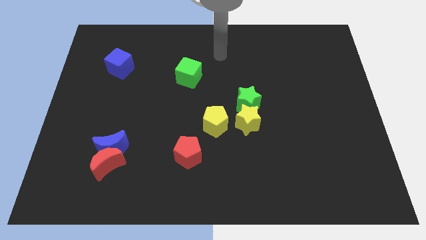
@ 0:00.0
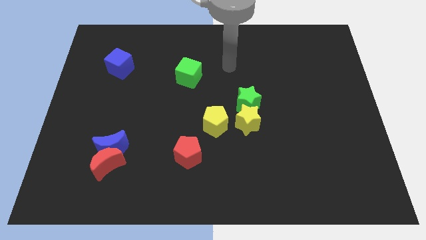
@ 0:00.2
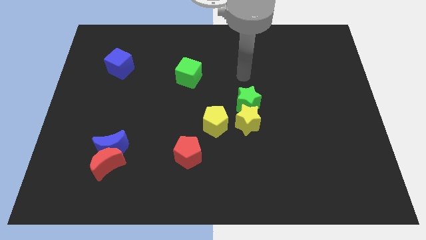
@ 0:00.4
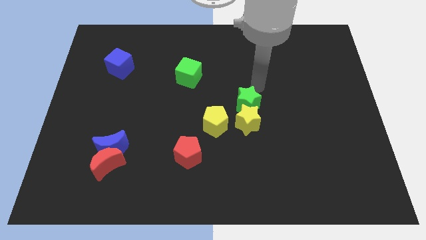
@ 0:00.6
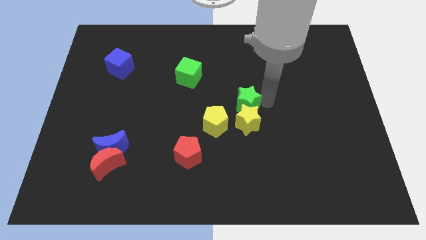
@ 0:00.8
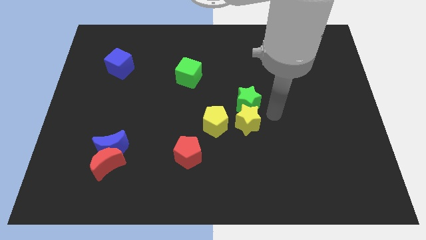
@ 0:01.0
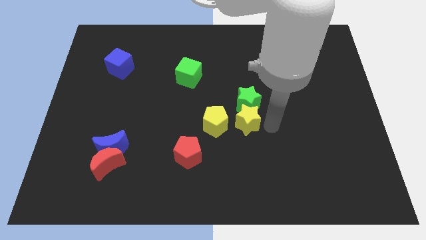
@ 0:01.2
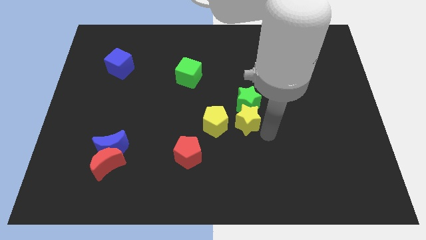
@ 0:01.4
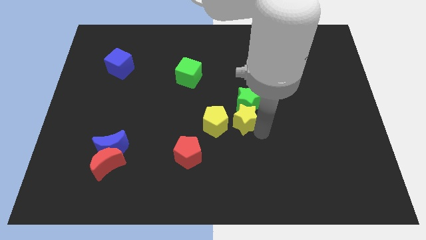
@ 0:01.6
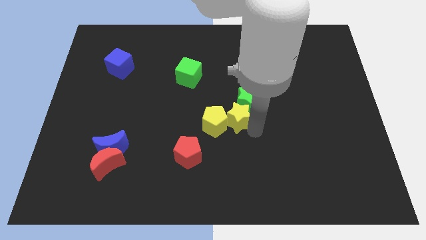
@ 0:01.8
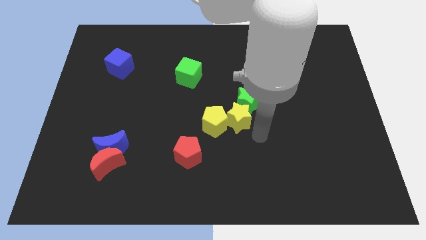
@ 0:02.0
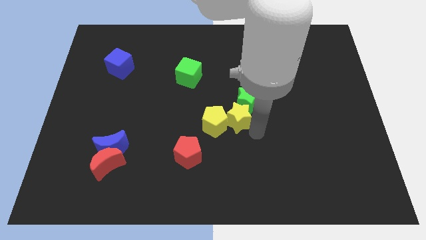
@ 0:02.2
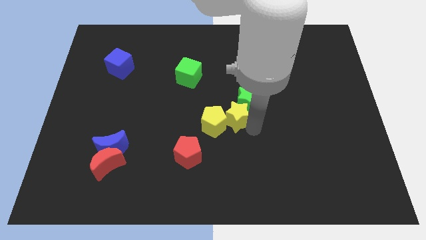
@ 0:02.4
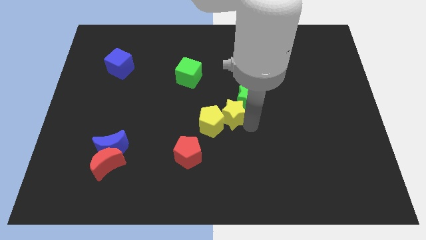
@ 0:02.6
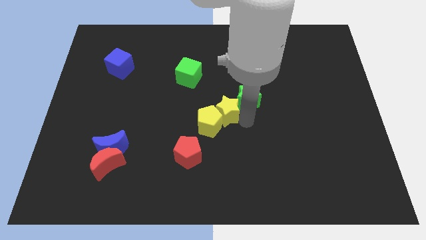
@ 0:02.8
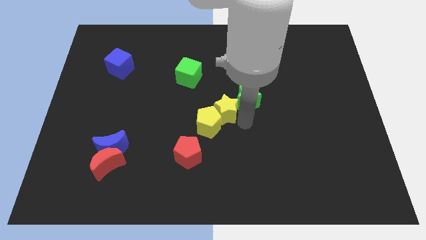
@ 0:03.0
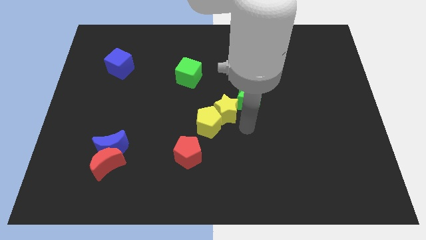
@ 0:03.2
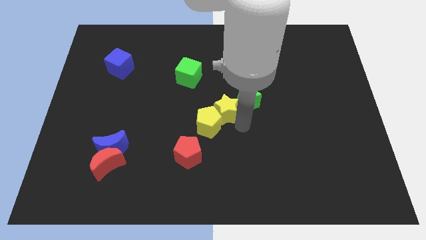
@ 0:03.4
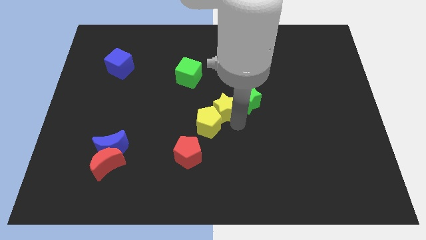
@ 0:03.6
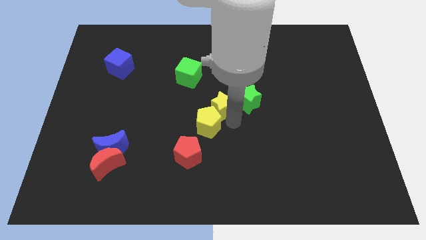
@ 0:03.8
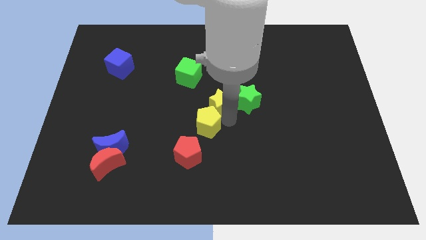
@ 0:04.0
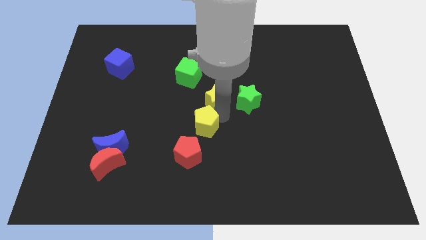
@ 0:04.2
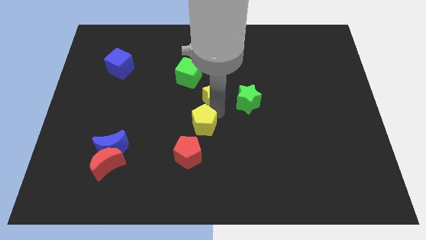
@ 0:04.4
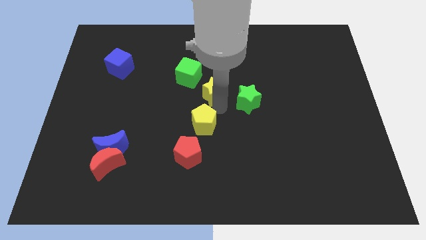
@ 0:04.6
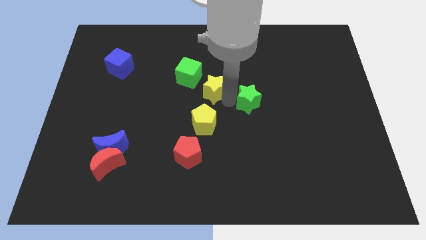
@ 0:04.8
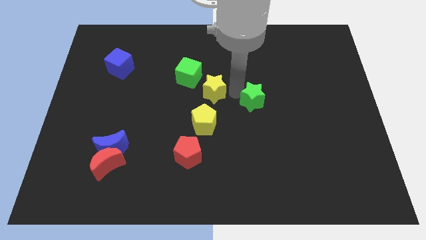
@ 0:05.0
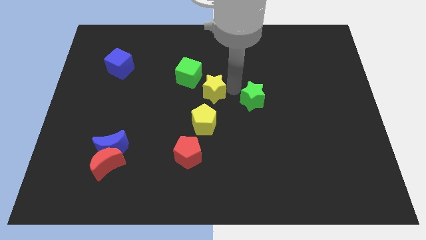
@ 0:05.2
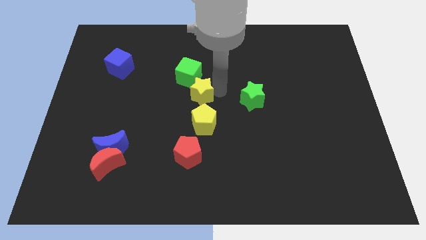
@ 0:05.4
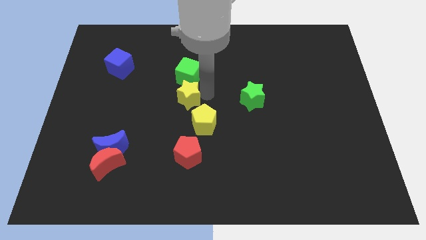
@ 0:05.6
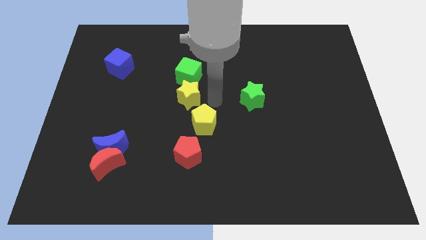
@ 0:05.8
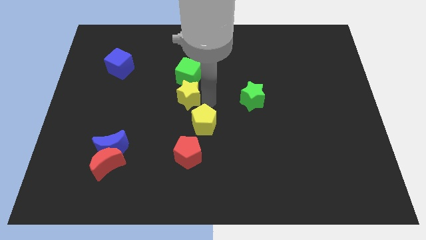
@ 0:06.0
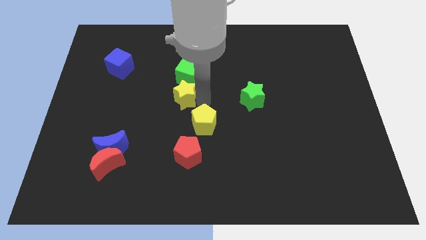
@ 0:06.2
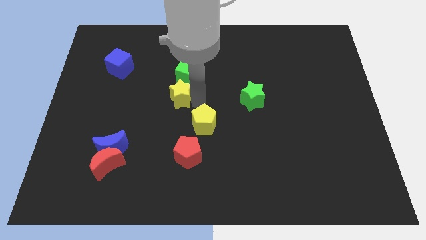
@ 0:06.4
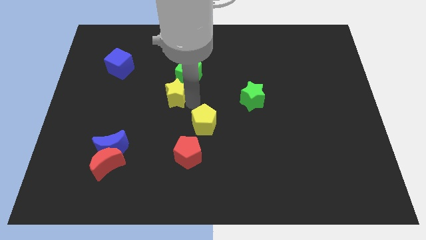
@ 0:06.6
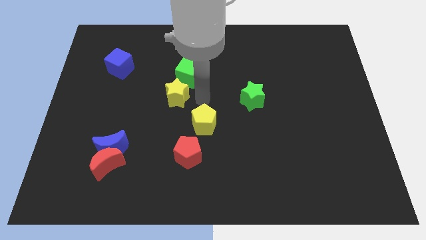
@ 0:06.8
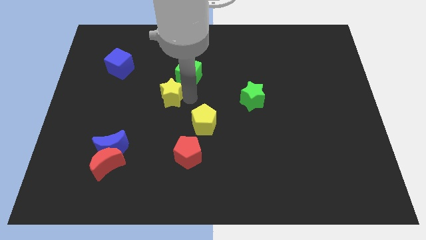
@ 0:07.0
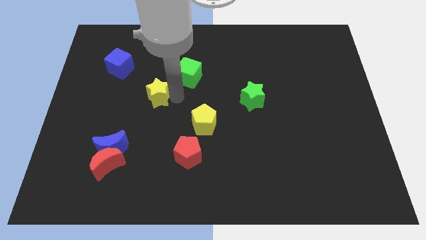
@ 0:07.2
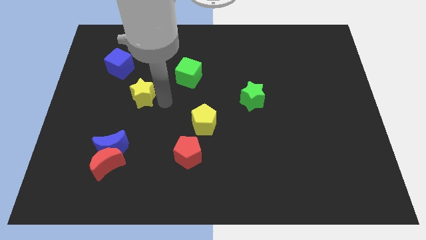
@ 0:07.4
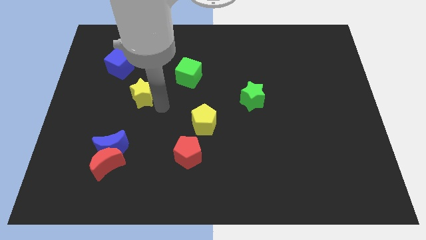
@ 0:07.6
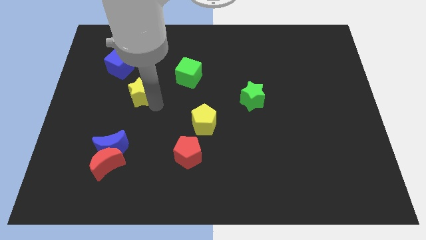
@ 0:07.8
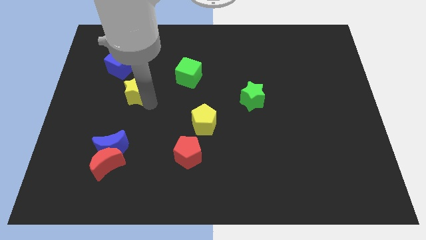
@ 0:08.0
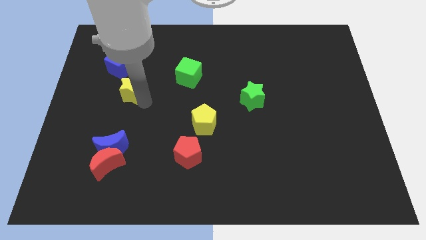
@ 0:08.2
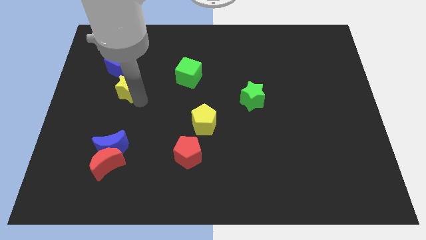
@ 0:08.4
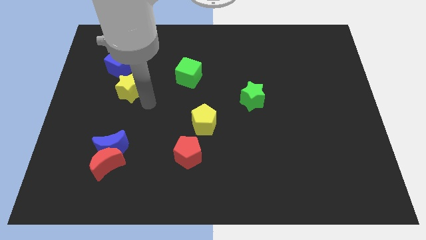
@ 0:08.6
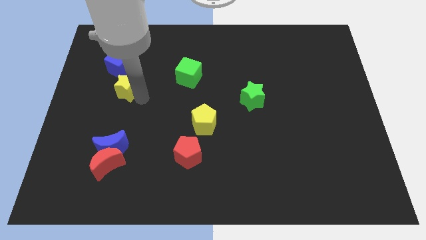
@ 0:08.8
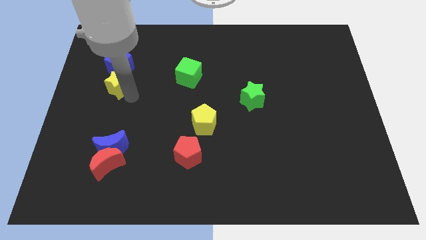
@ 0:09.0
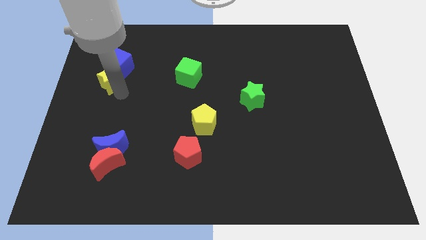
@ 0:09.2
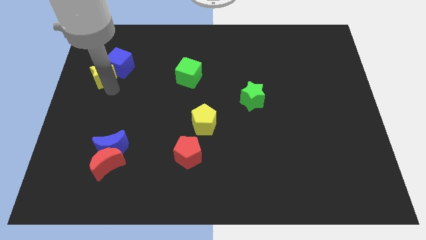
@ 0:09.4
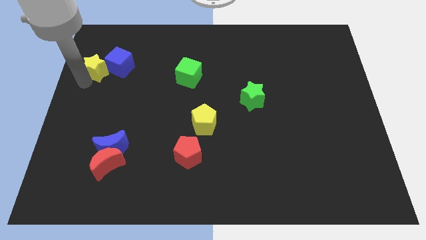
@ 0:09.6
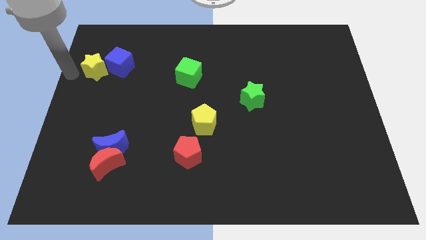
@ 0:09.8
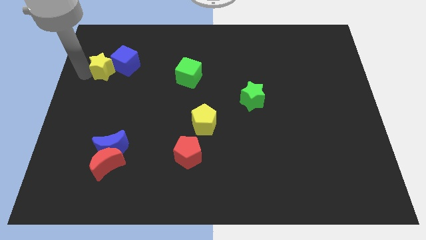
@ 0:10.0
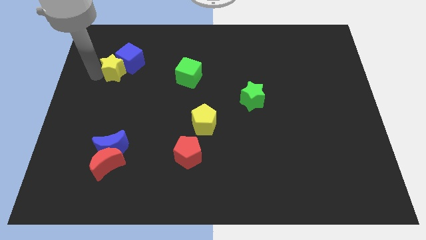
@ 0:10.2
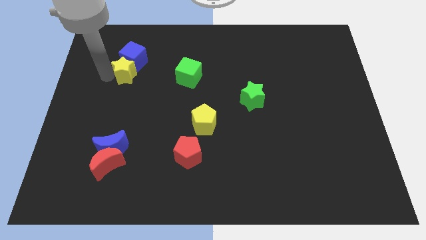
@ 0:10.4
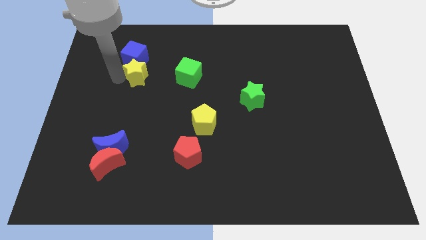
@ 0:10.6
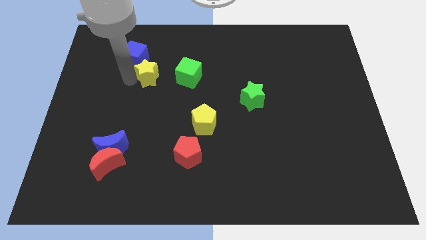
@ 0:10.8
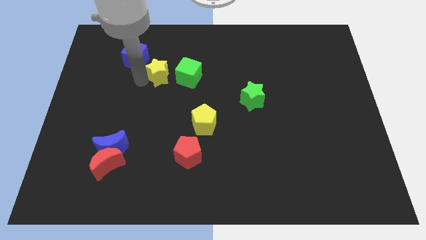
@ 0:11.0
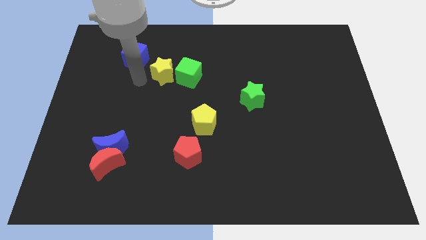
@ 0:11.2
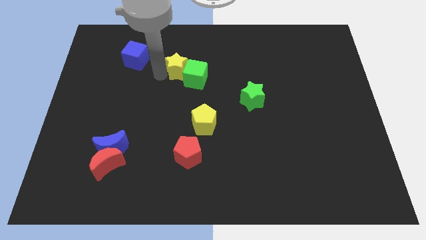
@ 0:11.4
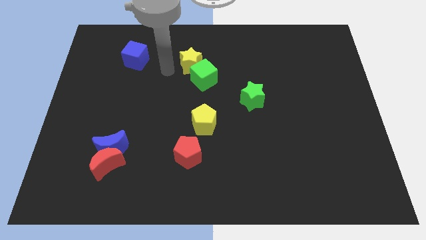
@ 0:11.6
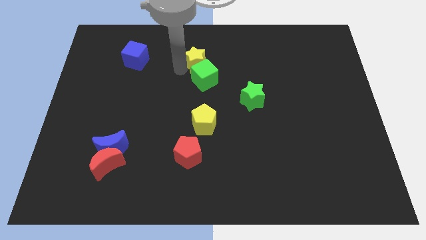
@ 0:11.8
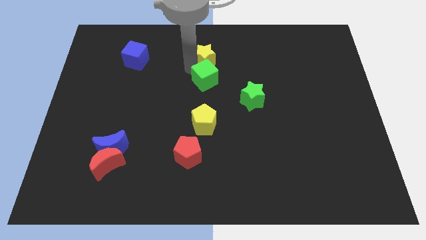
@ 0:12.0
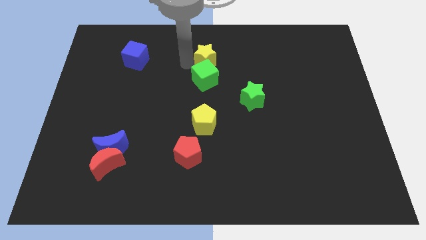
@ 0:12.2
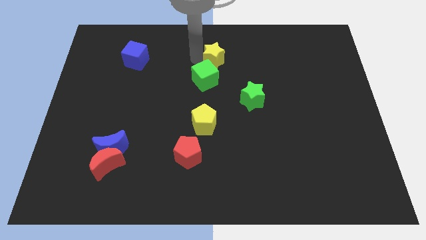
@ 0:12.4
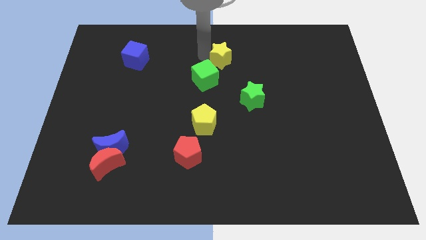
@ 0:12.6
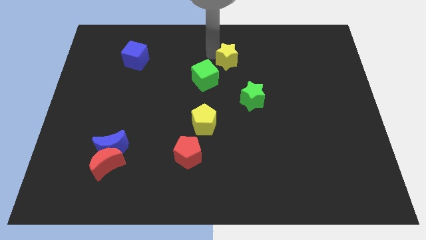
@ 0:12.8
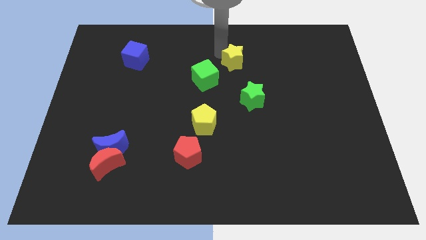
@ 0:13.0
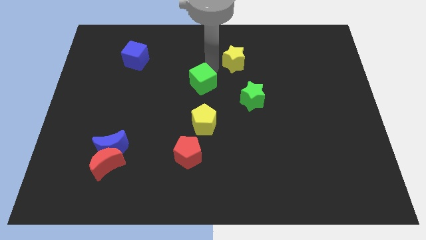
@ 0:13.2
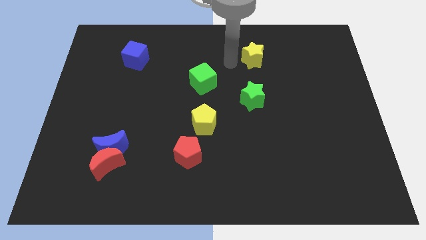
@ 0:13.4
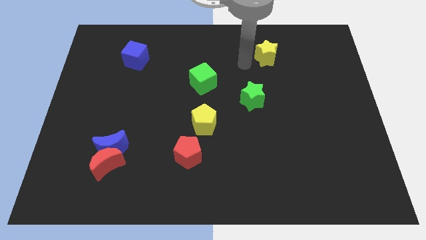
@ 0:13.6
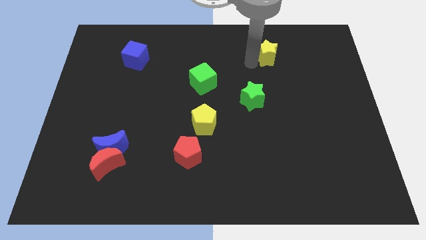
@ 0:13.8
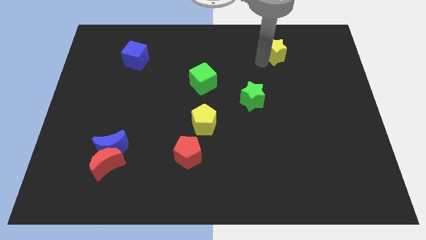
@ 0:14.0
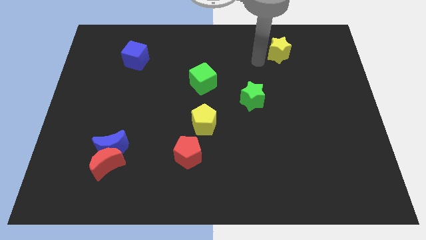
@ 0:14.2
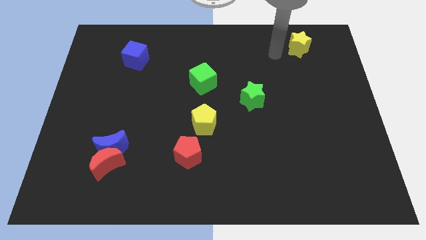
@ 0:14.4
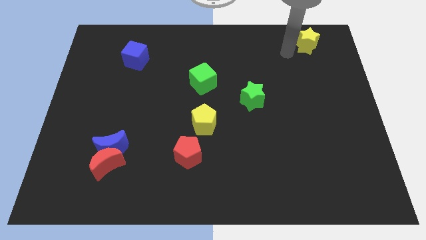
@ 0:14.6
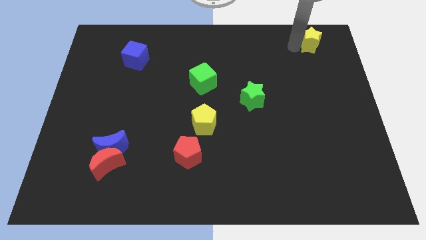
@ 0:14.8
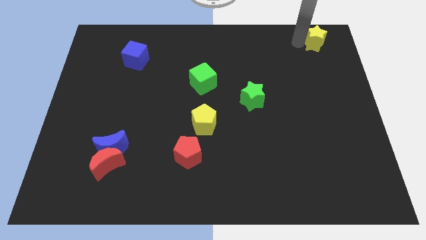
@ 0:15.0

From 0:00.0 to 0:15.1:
move the yellow star to the upper right corner
